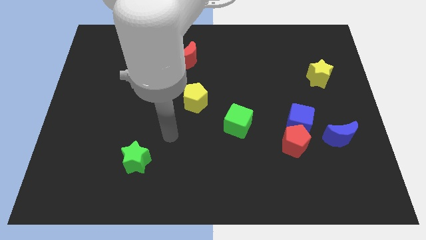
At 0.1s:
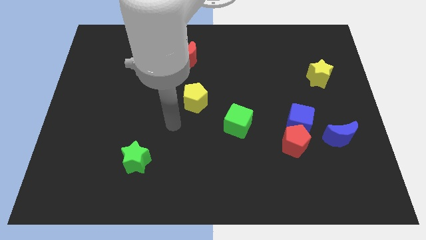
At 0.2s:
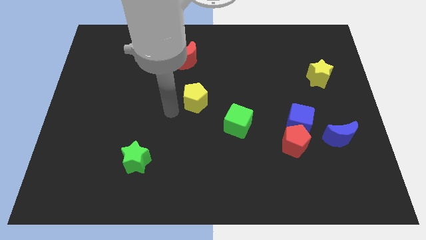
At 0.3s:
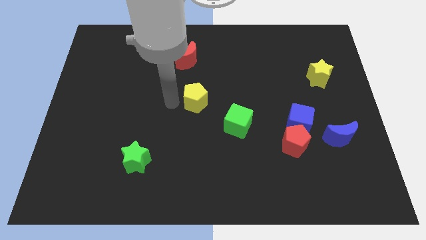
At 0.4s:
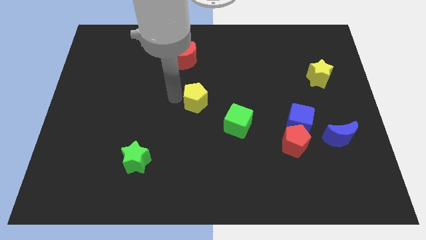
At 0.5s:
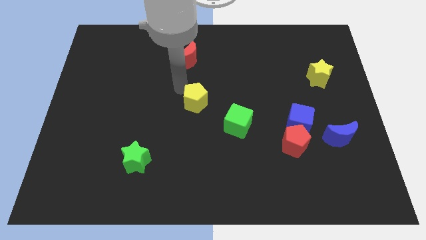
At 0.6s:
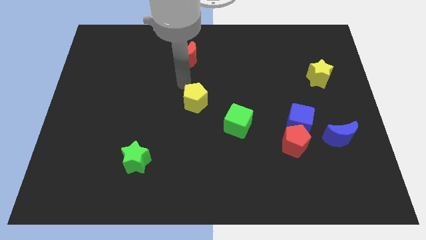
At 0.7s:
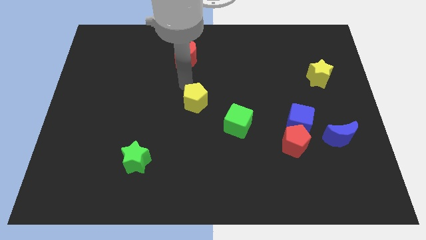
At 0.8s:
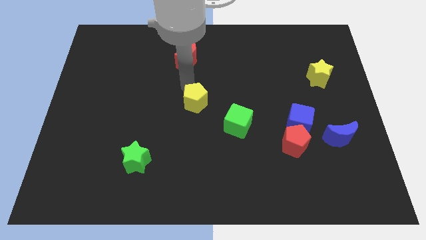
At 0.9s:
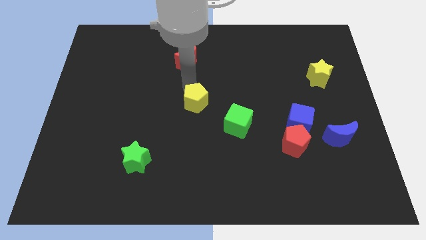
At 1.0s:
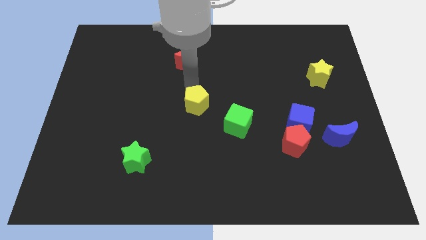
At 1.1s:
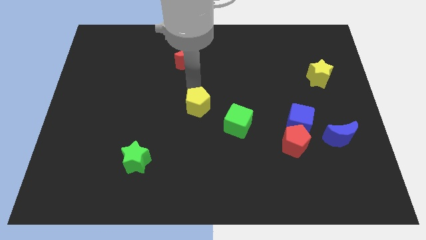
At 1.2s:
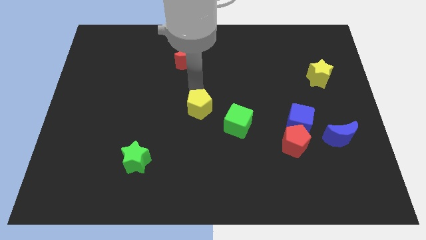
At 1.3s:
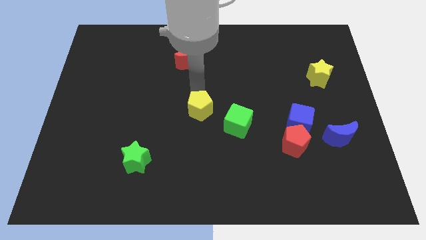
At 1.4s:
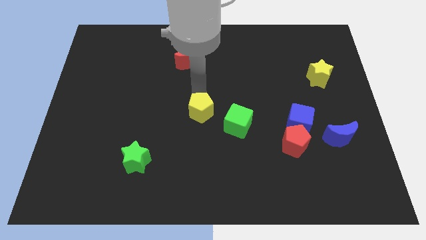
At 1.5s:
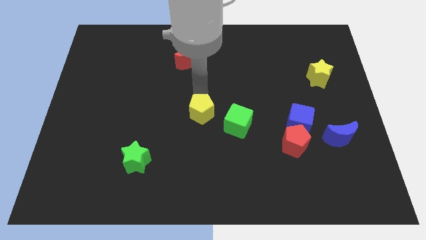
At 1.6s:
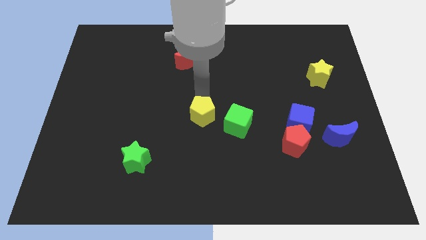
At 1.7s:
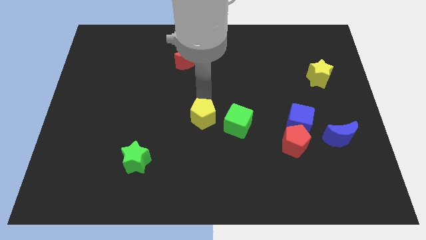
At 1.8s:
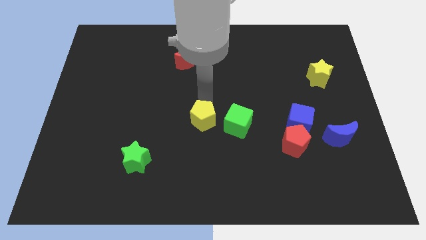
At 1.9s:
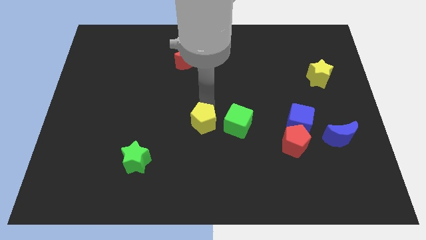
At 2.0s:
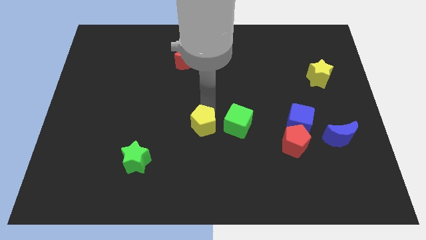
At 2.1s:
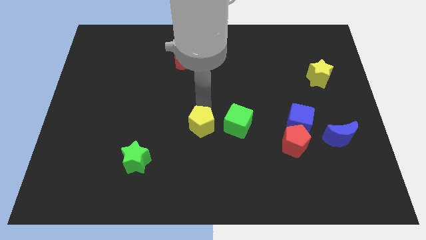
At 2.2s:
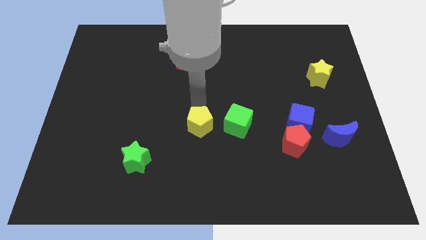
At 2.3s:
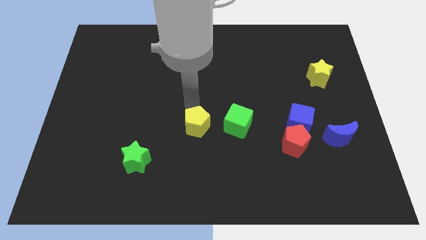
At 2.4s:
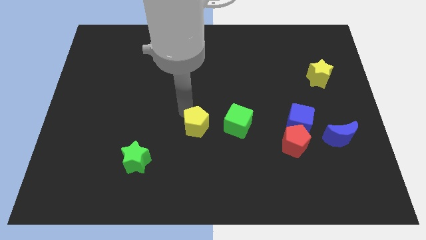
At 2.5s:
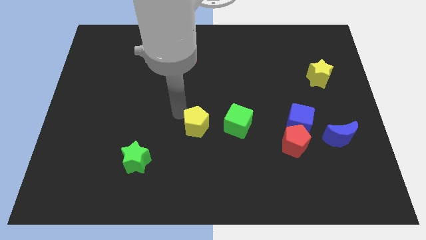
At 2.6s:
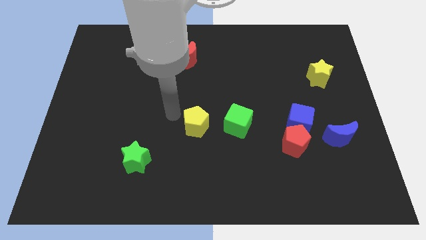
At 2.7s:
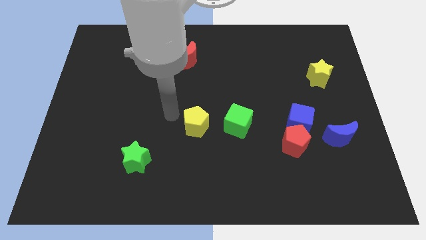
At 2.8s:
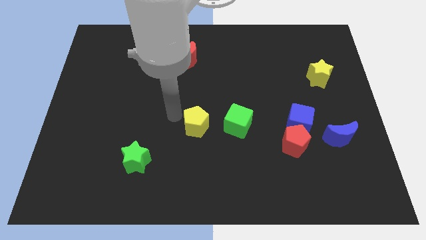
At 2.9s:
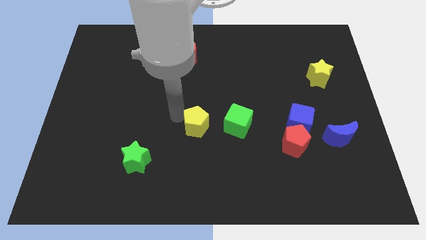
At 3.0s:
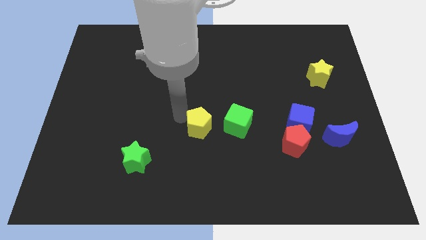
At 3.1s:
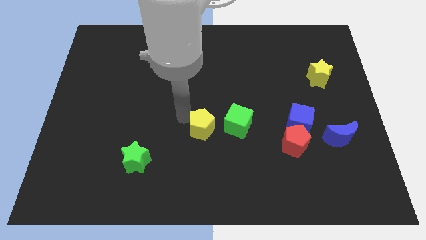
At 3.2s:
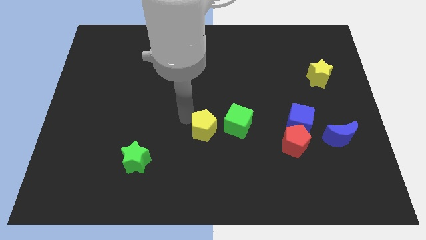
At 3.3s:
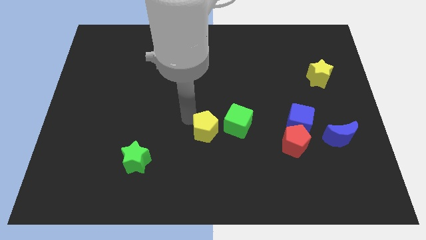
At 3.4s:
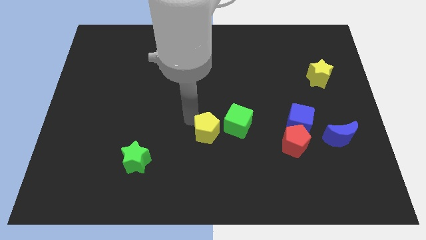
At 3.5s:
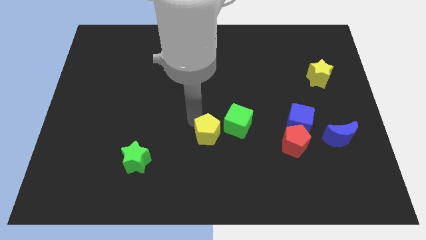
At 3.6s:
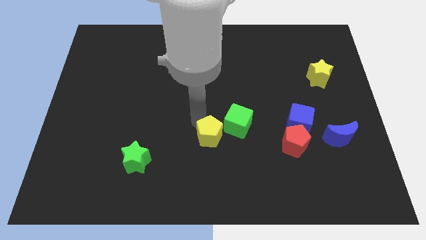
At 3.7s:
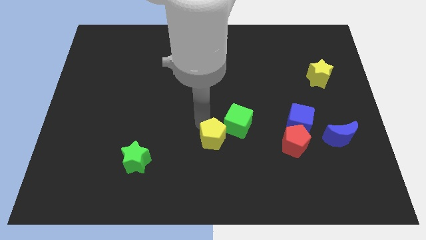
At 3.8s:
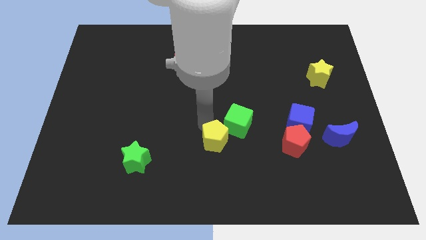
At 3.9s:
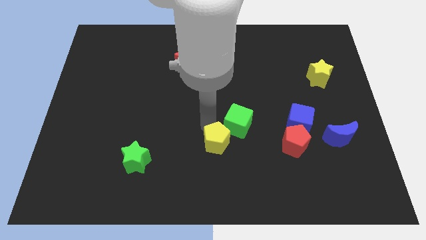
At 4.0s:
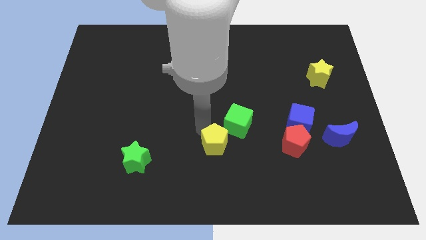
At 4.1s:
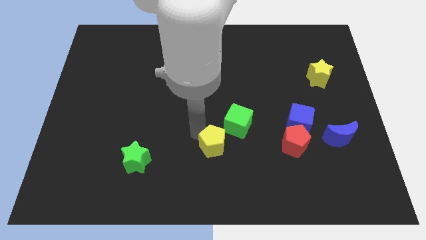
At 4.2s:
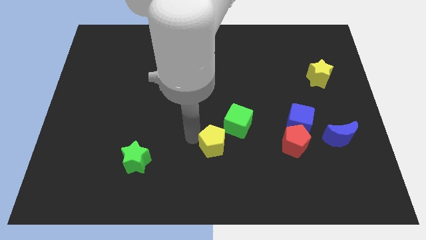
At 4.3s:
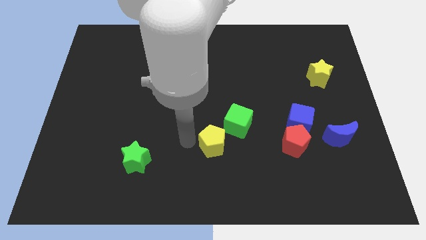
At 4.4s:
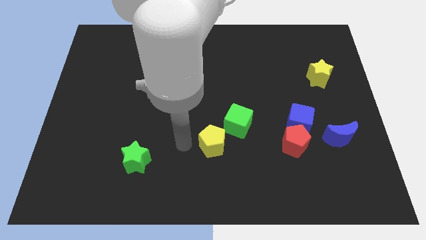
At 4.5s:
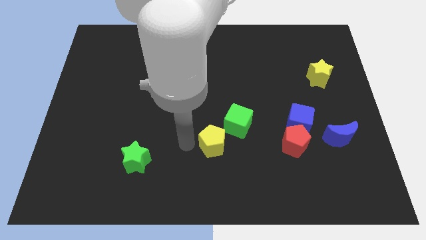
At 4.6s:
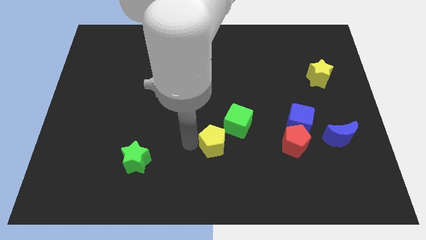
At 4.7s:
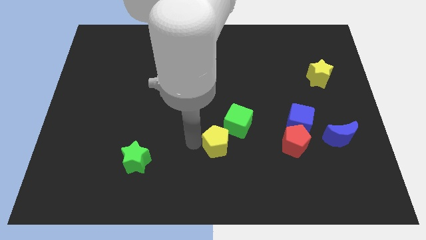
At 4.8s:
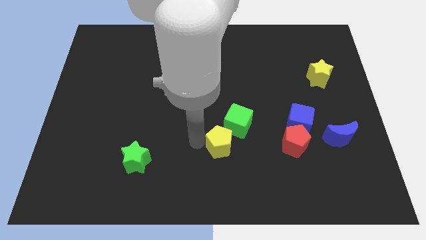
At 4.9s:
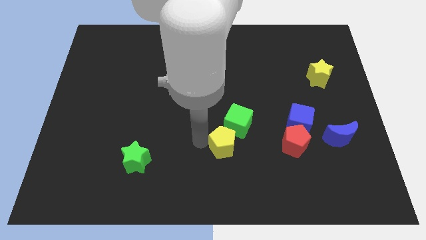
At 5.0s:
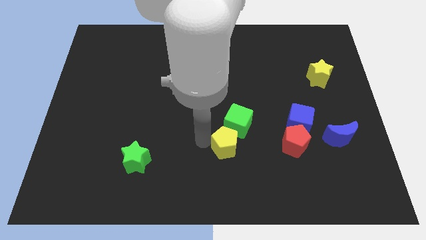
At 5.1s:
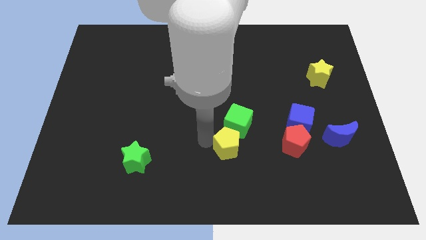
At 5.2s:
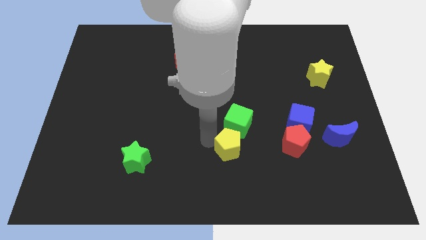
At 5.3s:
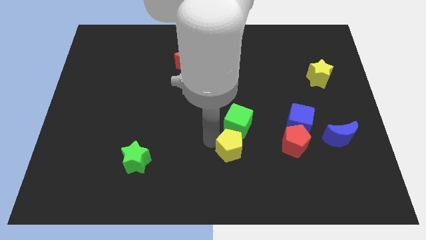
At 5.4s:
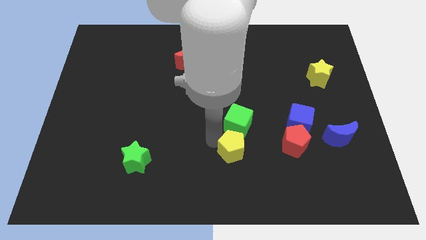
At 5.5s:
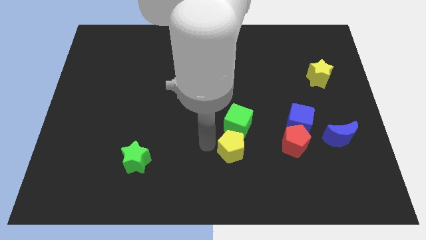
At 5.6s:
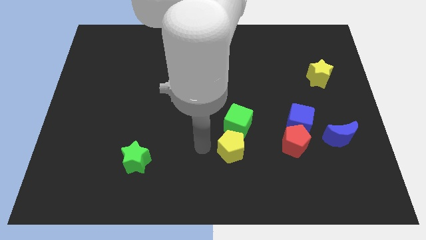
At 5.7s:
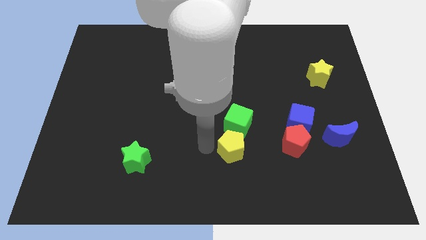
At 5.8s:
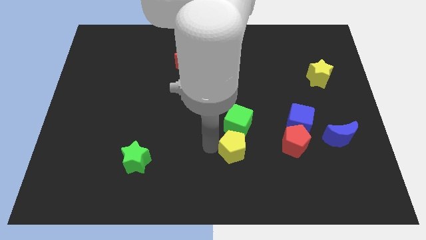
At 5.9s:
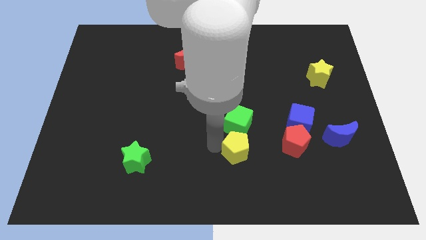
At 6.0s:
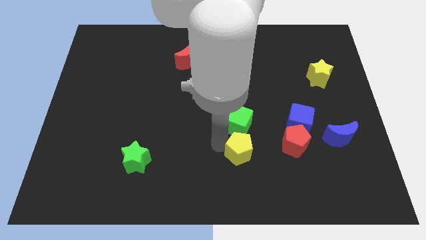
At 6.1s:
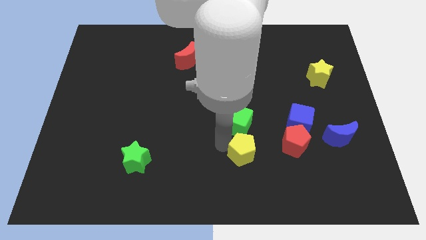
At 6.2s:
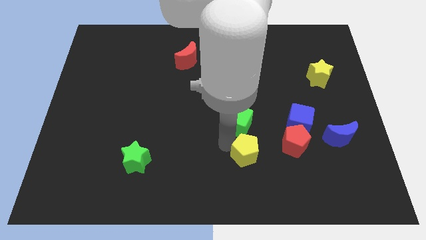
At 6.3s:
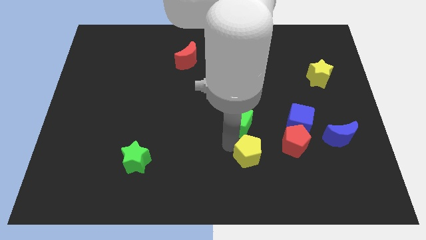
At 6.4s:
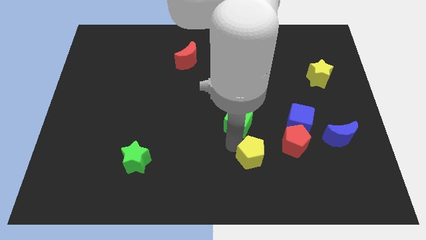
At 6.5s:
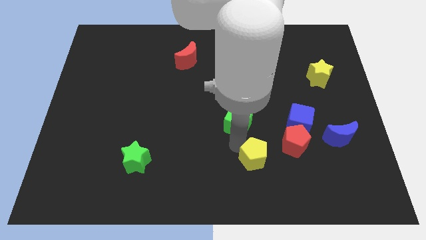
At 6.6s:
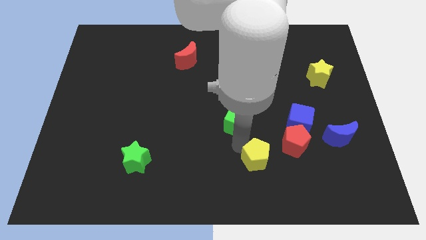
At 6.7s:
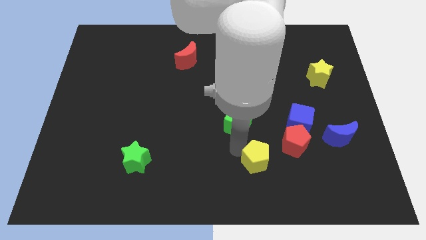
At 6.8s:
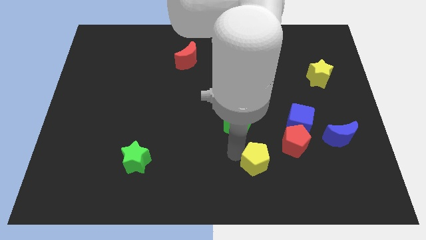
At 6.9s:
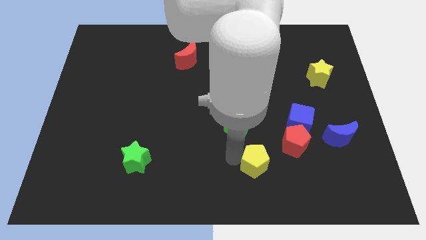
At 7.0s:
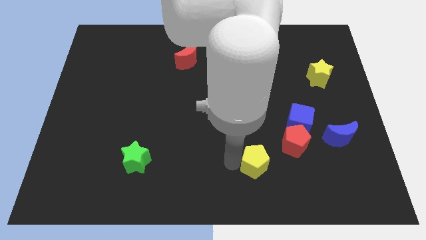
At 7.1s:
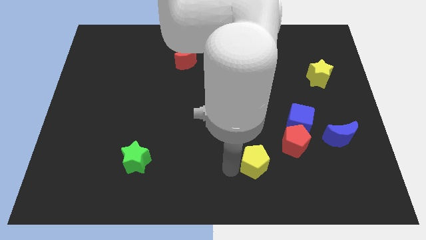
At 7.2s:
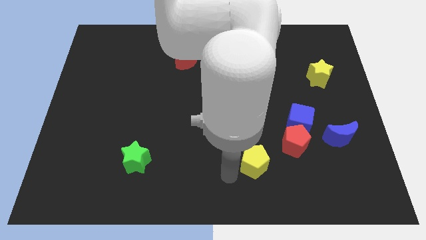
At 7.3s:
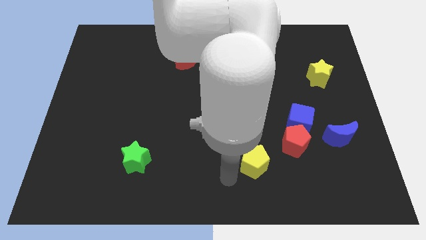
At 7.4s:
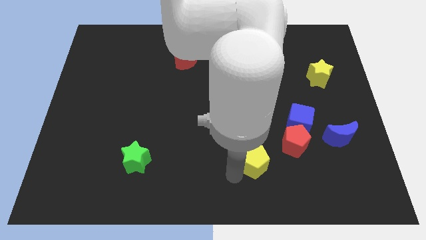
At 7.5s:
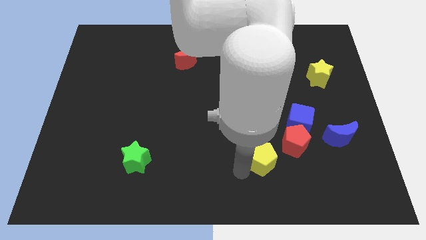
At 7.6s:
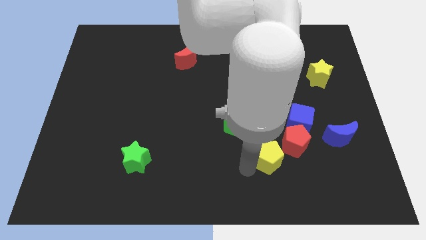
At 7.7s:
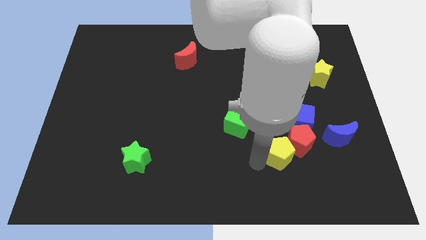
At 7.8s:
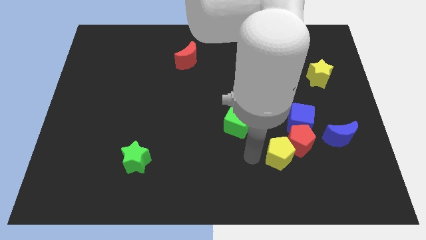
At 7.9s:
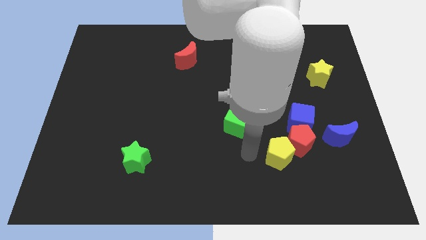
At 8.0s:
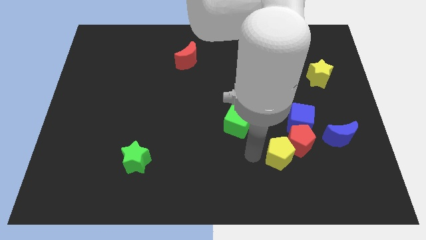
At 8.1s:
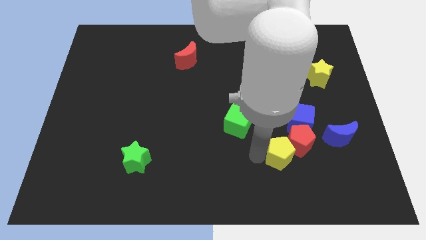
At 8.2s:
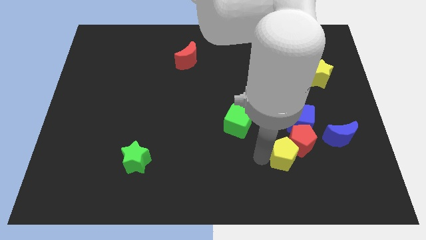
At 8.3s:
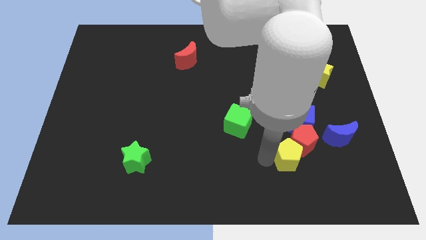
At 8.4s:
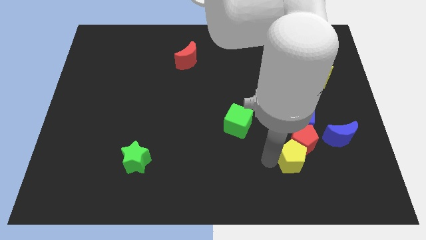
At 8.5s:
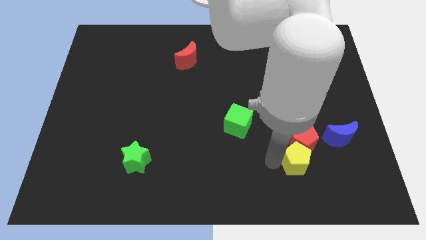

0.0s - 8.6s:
push the yellow pentagon to the bottom left of the blue moon
